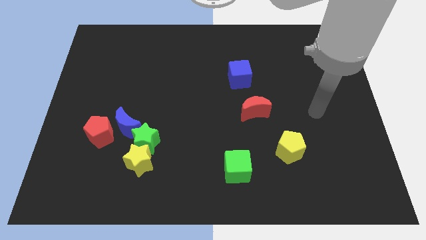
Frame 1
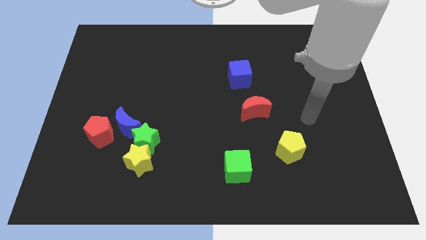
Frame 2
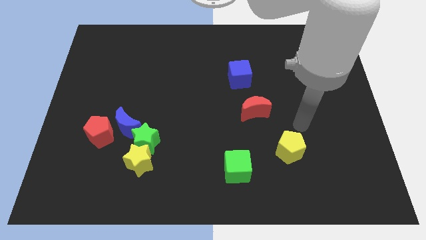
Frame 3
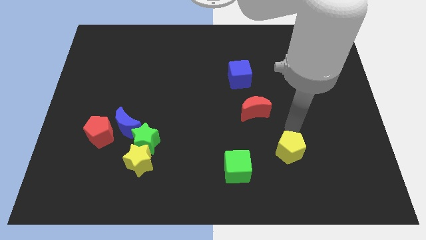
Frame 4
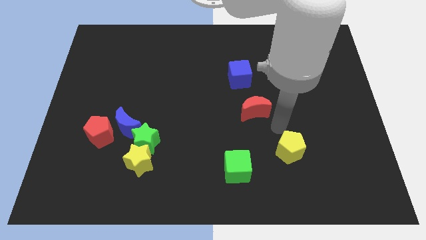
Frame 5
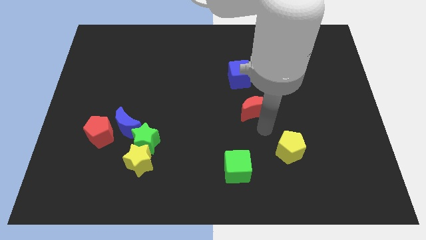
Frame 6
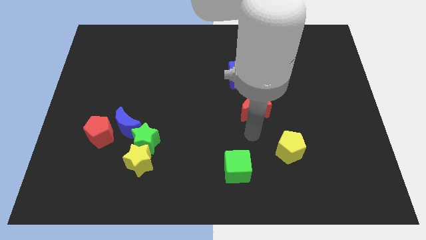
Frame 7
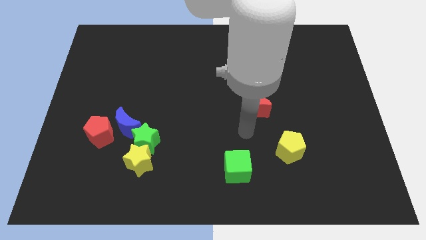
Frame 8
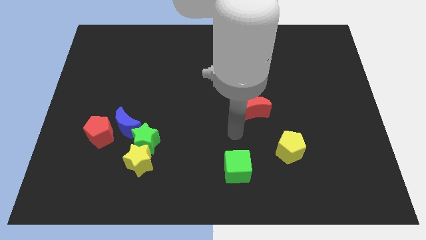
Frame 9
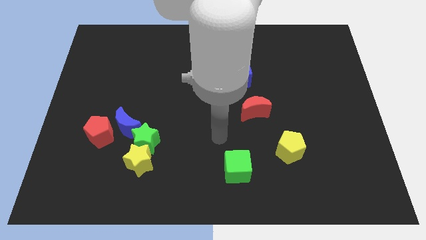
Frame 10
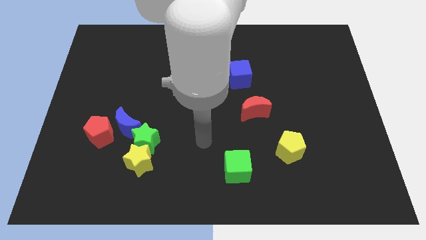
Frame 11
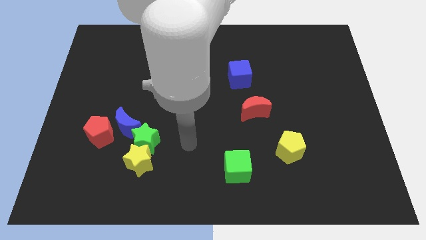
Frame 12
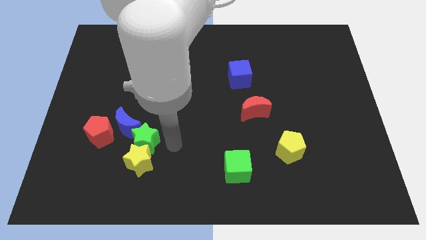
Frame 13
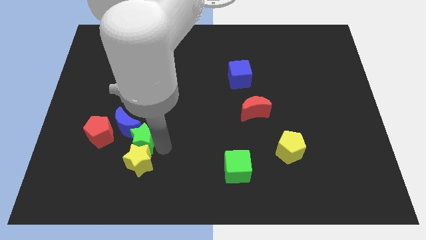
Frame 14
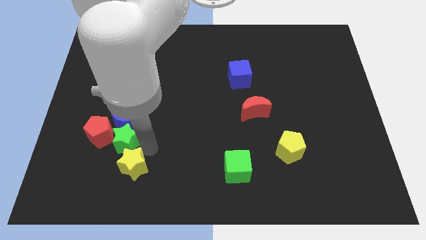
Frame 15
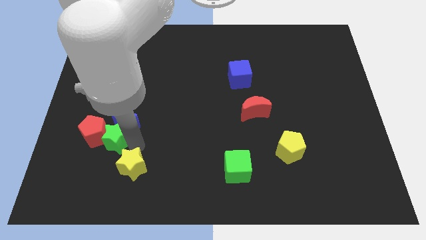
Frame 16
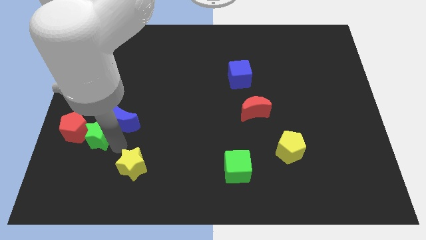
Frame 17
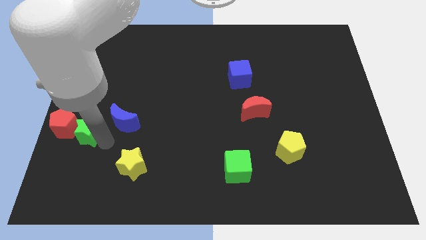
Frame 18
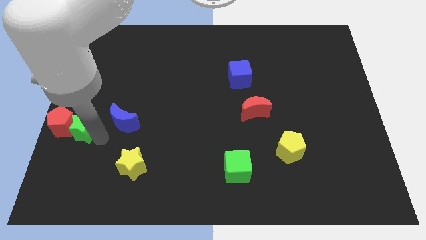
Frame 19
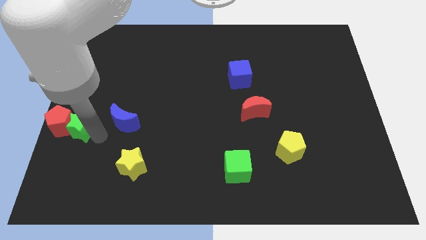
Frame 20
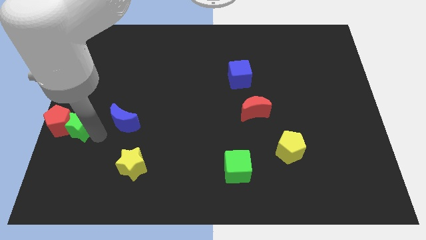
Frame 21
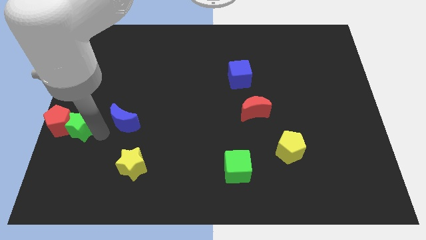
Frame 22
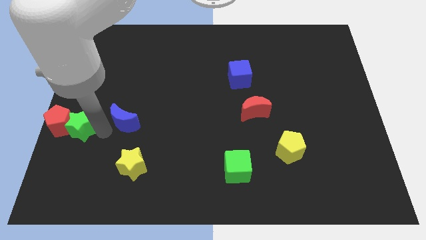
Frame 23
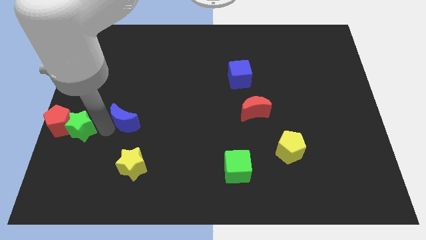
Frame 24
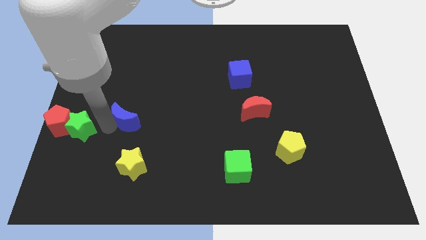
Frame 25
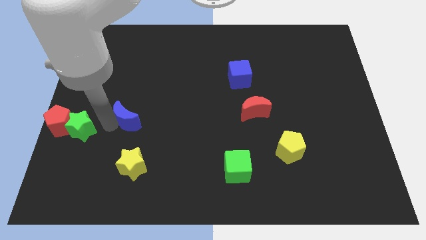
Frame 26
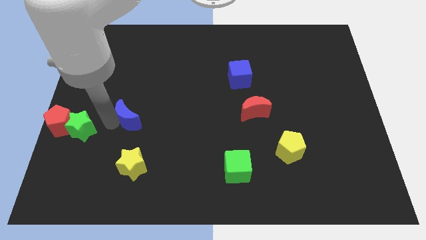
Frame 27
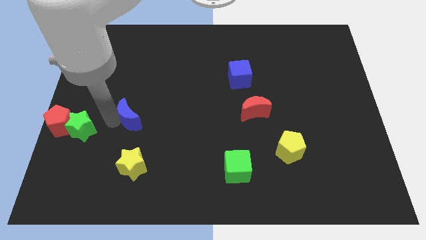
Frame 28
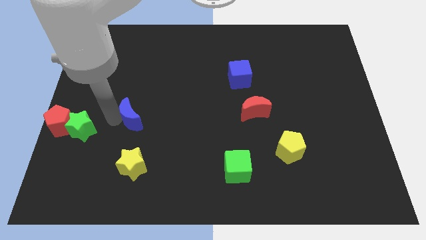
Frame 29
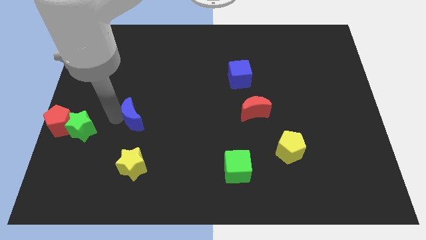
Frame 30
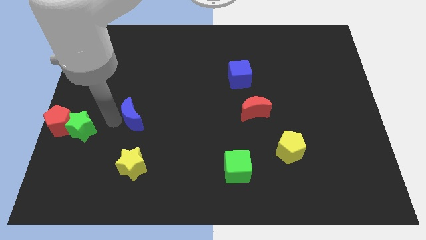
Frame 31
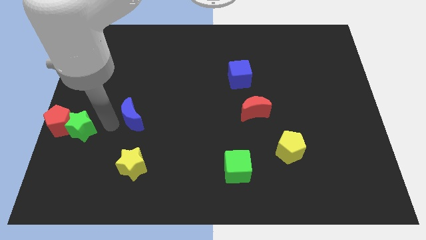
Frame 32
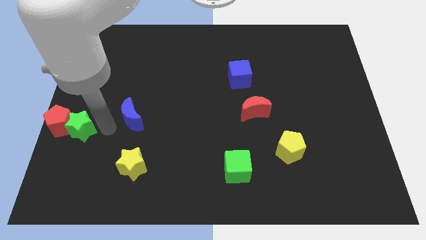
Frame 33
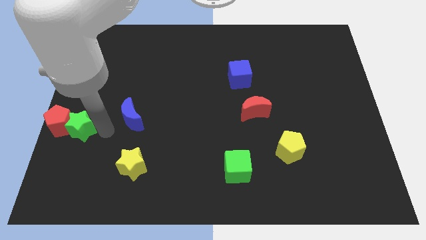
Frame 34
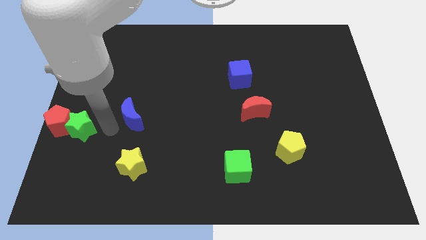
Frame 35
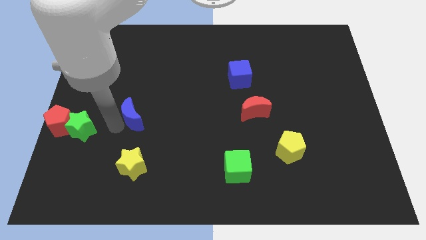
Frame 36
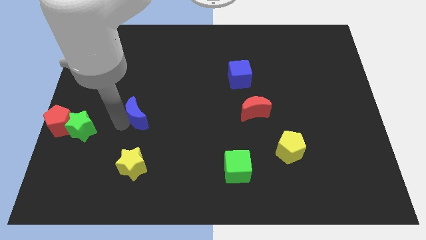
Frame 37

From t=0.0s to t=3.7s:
separate the blue moon from the group of blocks

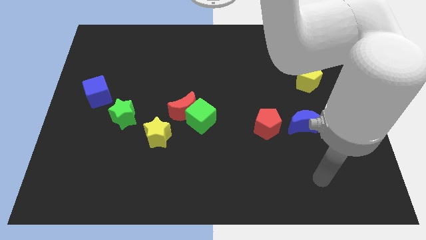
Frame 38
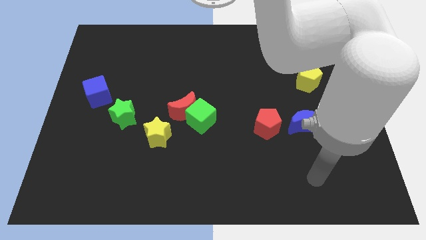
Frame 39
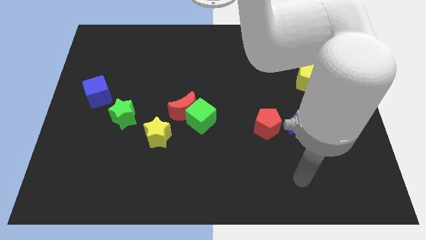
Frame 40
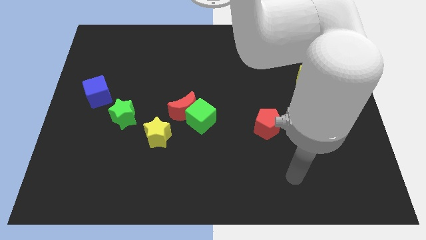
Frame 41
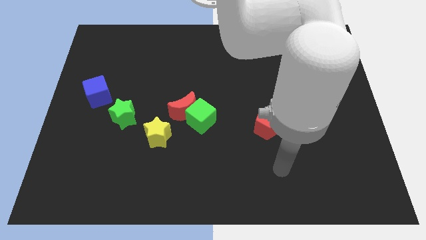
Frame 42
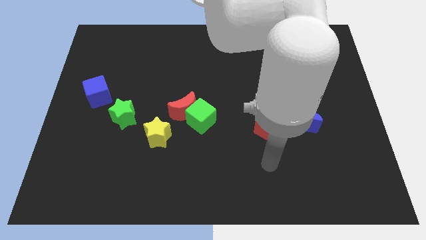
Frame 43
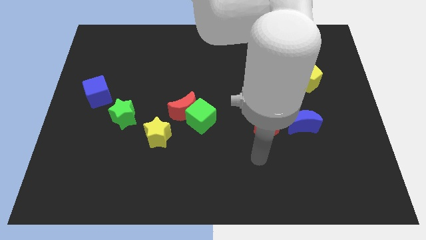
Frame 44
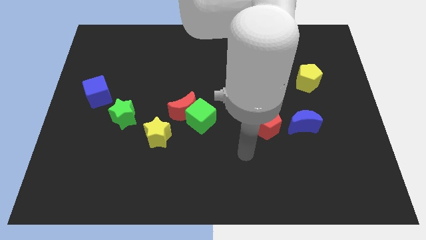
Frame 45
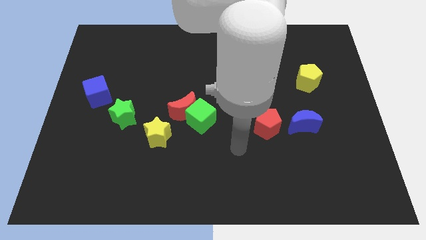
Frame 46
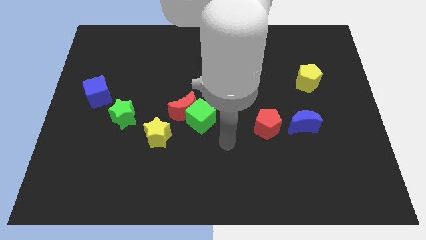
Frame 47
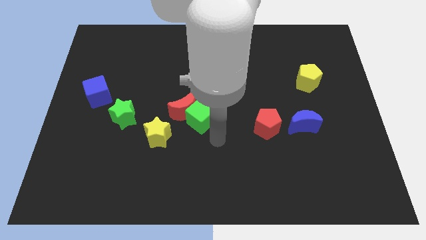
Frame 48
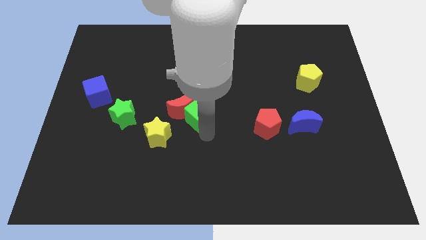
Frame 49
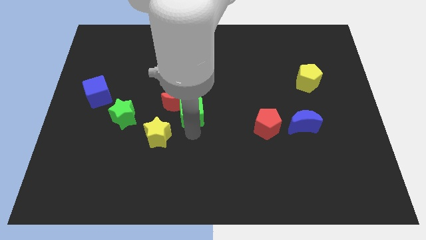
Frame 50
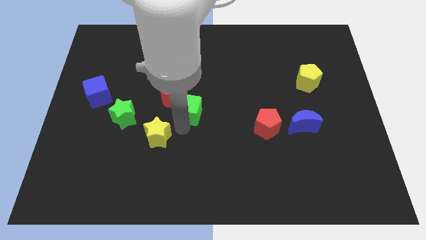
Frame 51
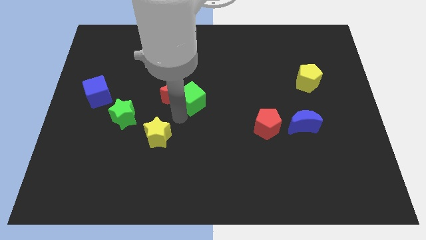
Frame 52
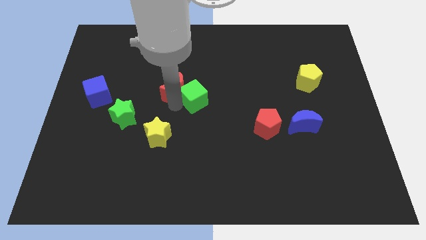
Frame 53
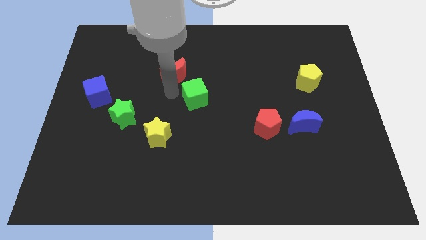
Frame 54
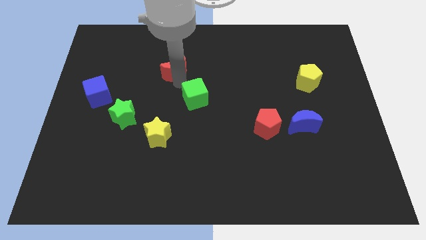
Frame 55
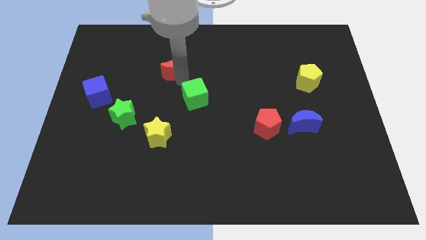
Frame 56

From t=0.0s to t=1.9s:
move the green cube away from the red moon

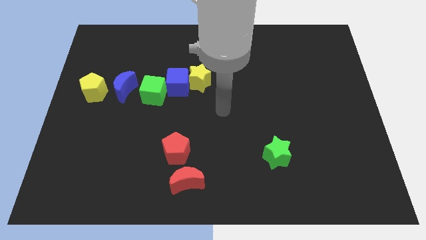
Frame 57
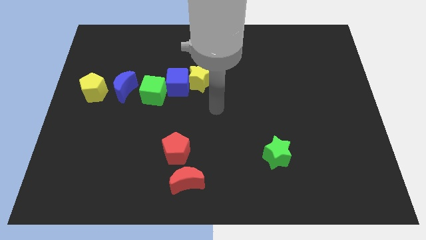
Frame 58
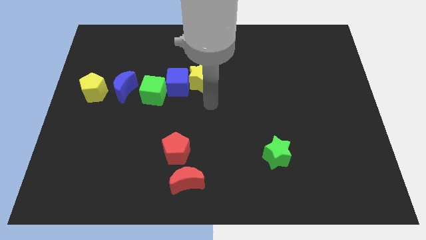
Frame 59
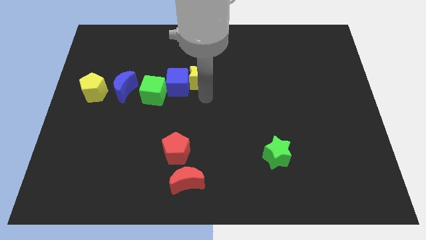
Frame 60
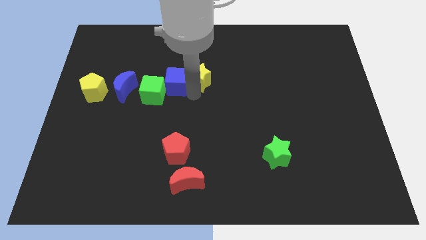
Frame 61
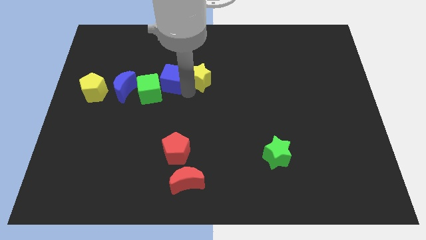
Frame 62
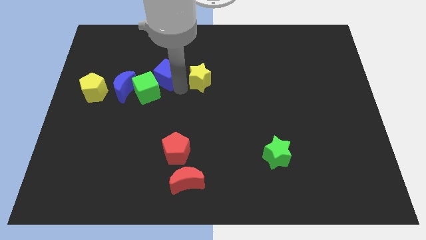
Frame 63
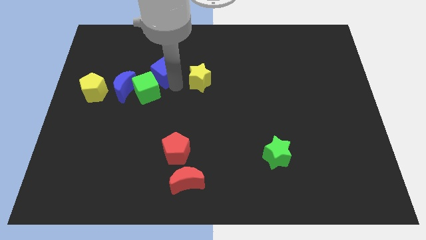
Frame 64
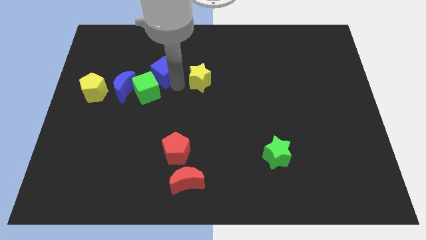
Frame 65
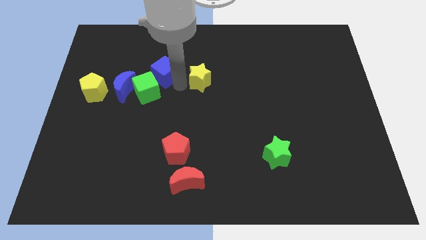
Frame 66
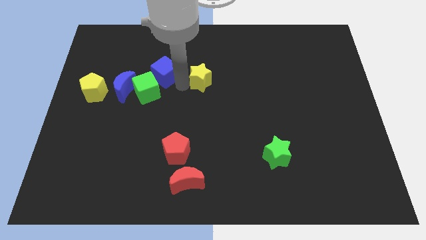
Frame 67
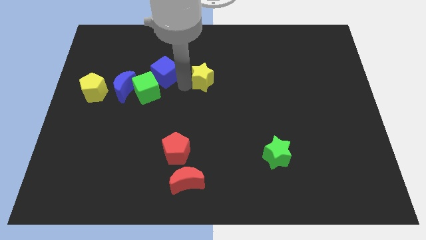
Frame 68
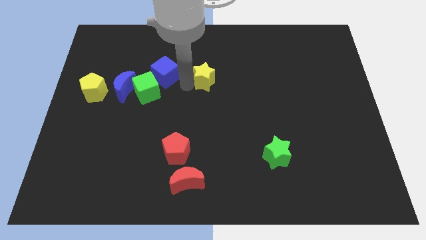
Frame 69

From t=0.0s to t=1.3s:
move the yellow star away from the blue cube

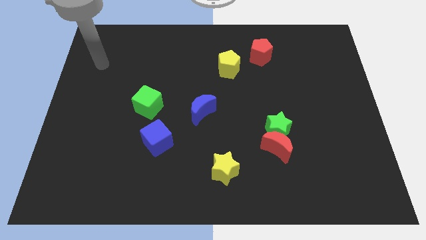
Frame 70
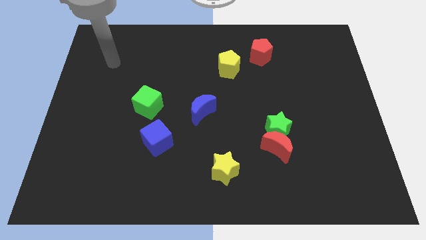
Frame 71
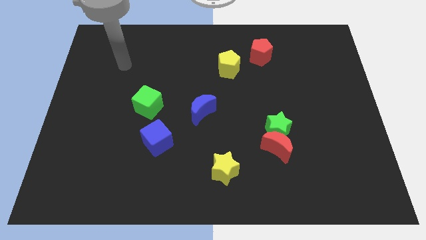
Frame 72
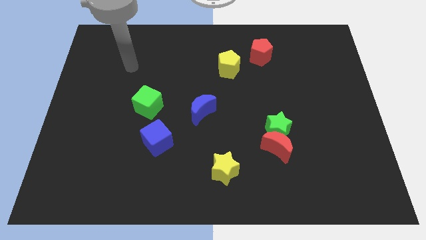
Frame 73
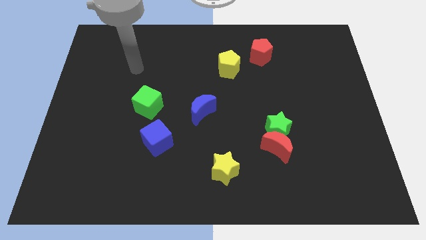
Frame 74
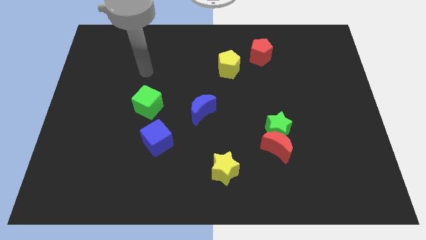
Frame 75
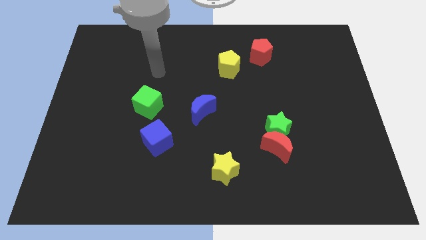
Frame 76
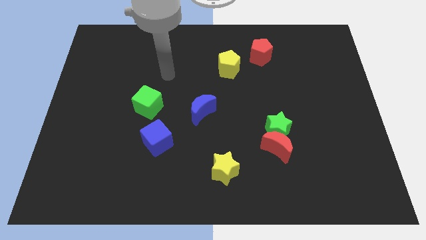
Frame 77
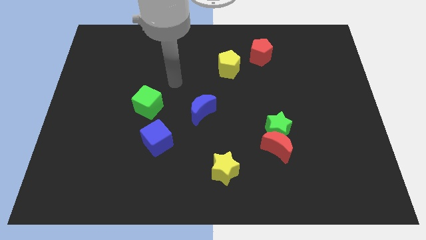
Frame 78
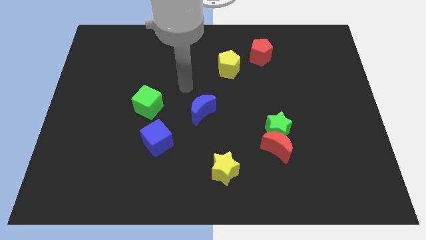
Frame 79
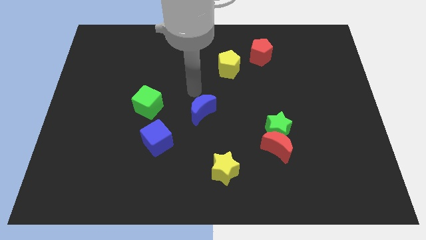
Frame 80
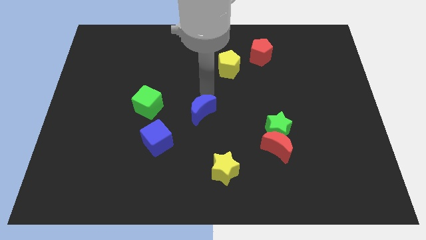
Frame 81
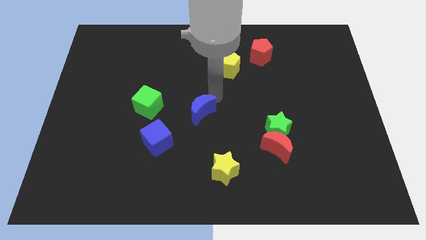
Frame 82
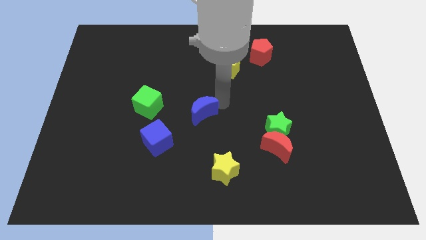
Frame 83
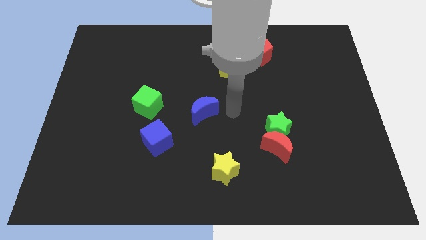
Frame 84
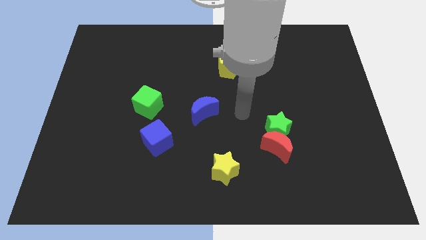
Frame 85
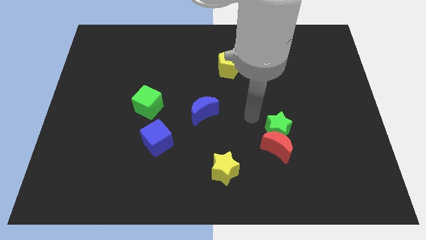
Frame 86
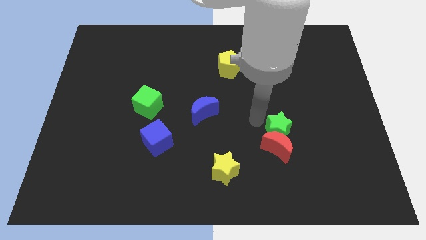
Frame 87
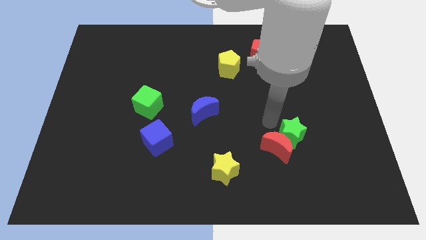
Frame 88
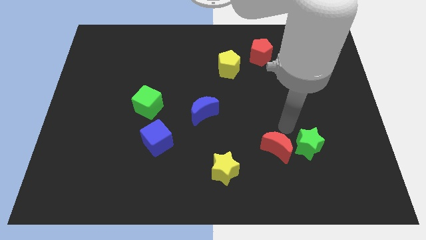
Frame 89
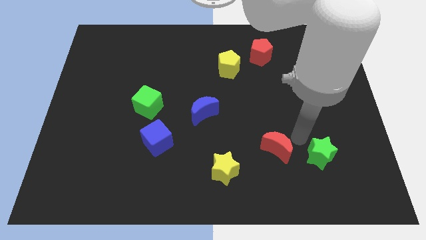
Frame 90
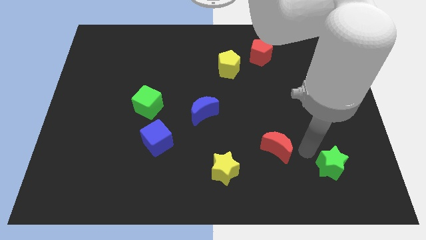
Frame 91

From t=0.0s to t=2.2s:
move the red moon away from the green star

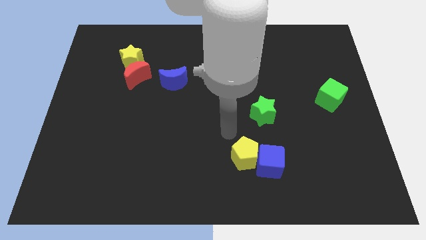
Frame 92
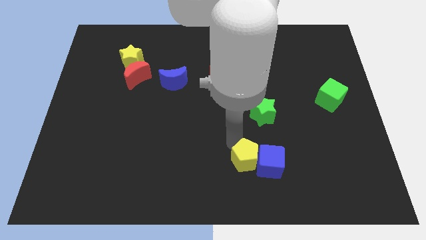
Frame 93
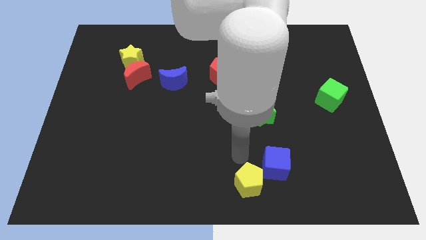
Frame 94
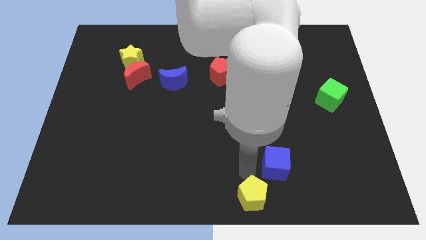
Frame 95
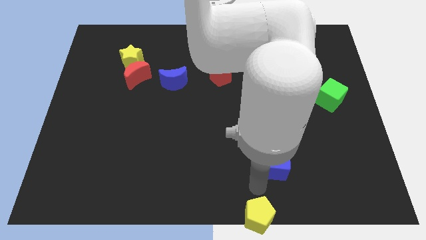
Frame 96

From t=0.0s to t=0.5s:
pull the blue cube apart from the yellow pentagon
